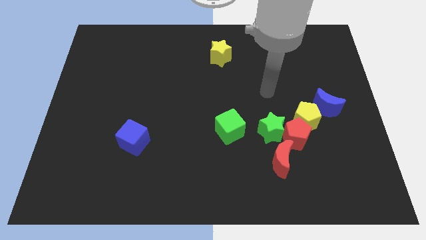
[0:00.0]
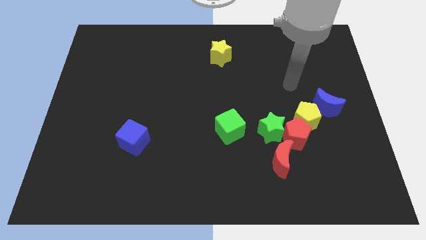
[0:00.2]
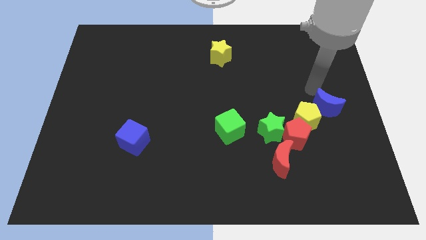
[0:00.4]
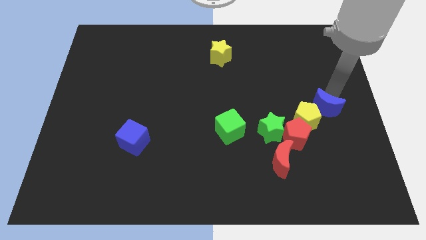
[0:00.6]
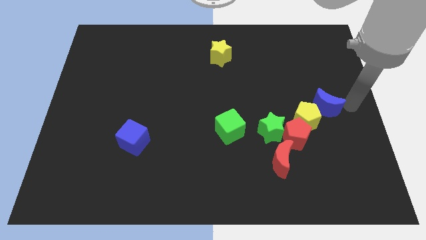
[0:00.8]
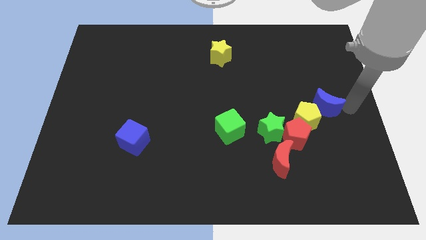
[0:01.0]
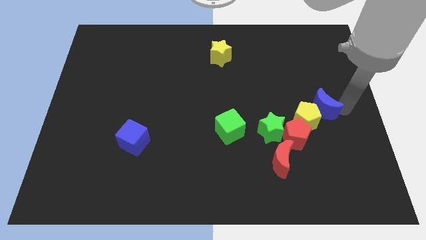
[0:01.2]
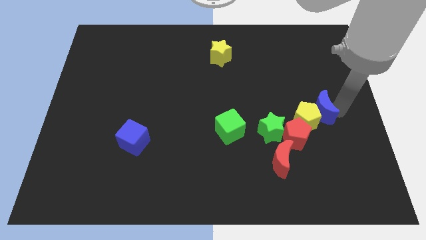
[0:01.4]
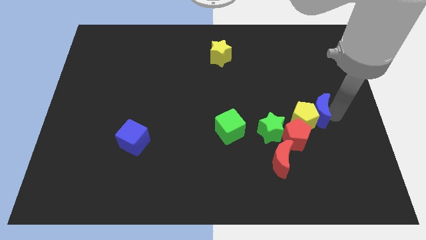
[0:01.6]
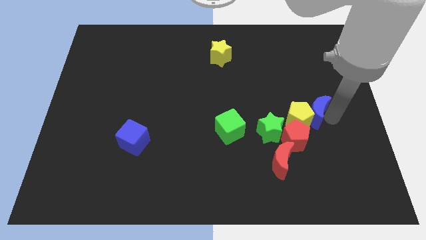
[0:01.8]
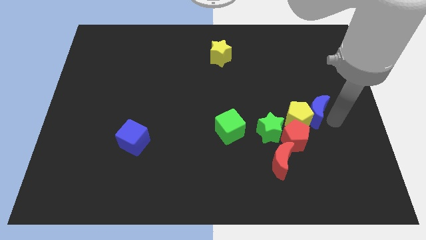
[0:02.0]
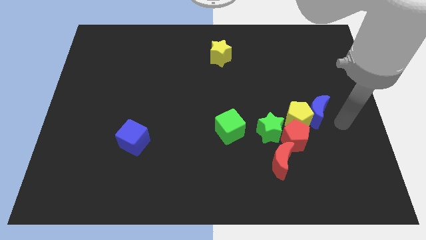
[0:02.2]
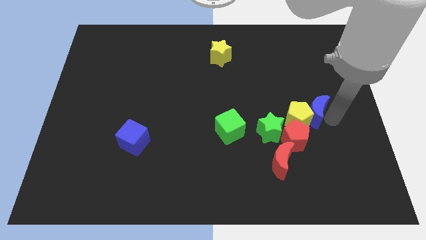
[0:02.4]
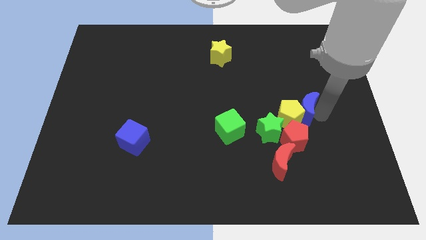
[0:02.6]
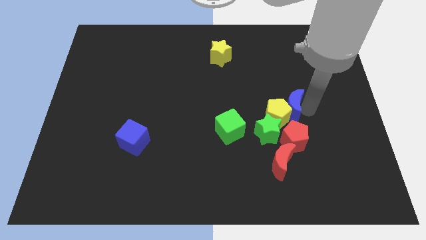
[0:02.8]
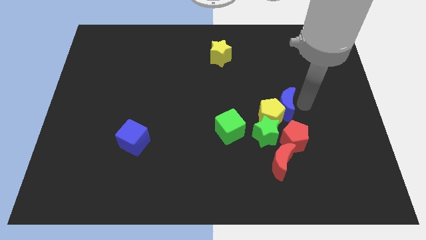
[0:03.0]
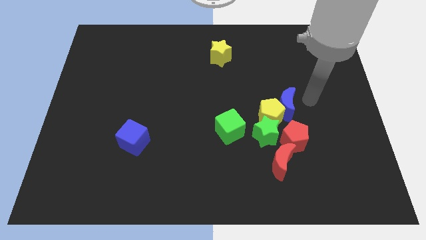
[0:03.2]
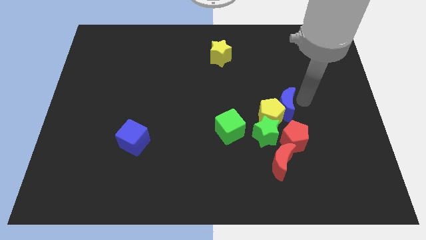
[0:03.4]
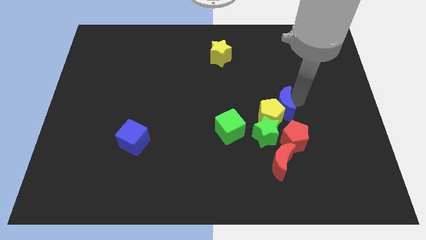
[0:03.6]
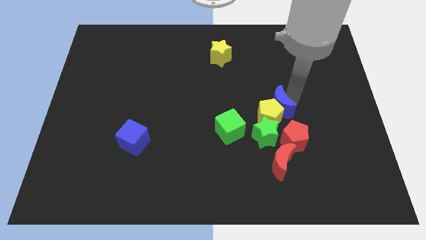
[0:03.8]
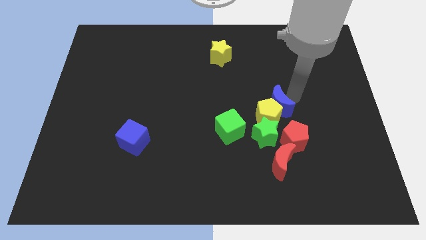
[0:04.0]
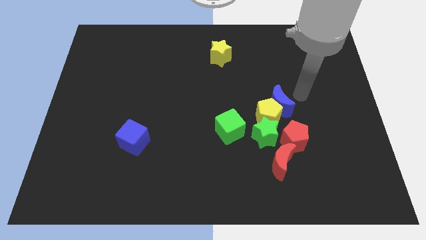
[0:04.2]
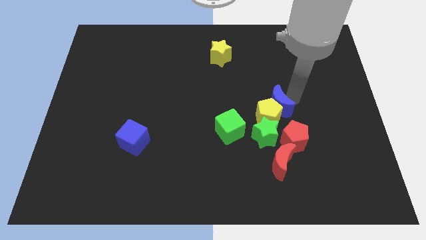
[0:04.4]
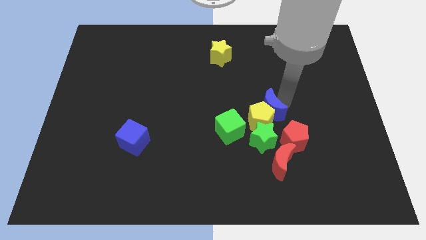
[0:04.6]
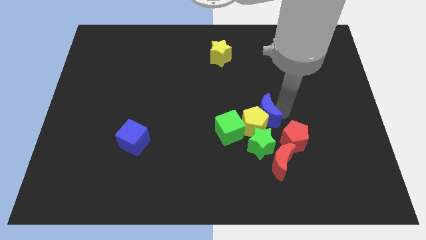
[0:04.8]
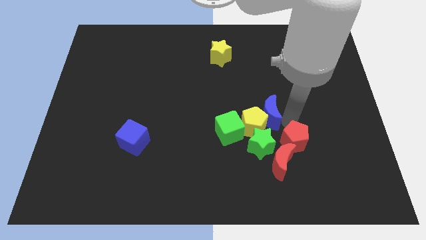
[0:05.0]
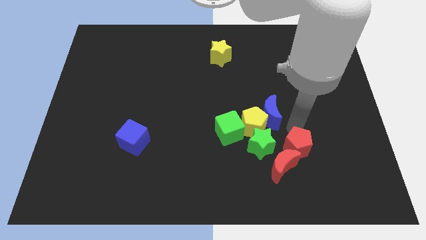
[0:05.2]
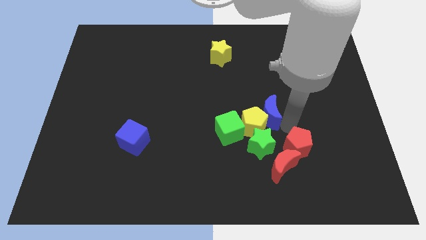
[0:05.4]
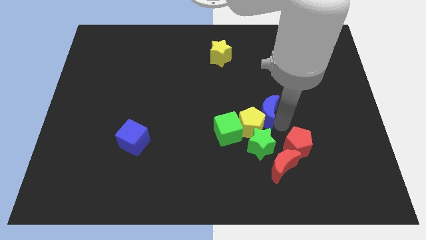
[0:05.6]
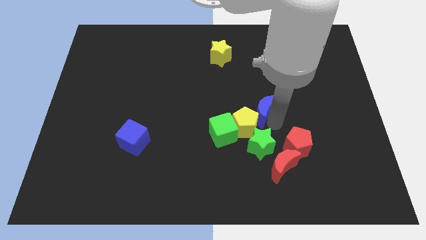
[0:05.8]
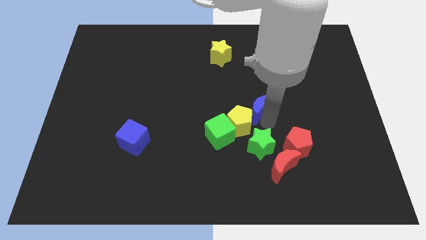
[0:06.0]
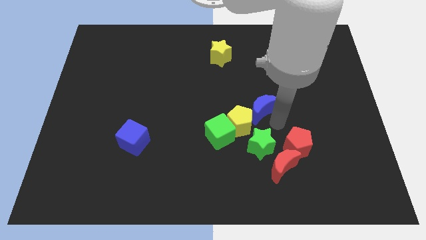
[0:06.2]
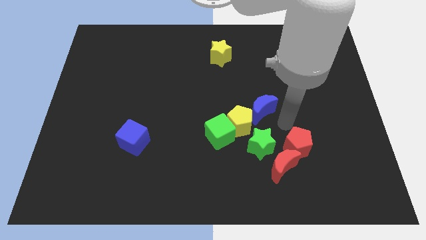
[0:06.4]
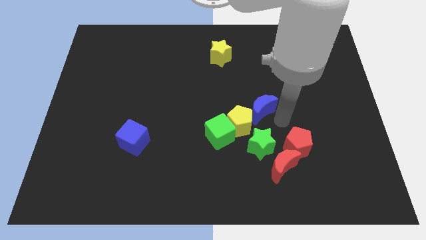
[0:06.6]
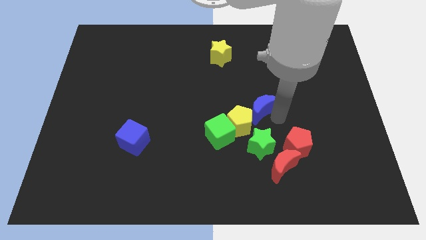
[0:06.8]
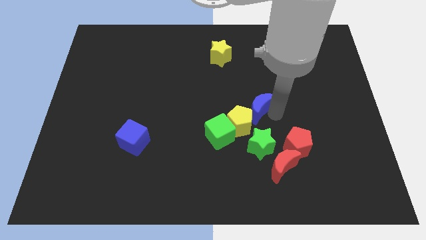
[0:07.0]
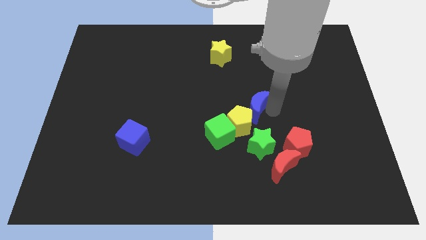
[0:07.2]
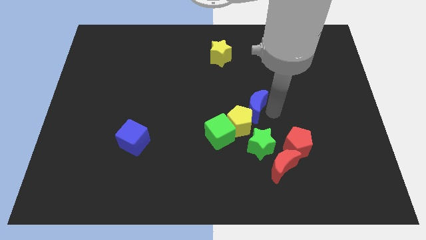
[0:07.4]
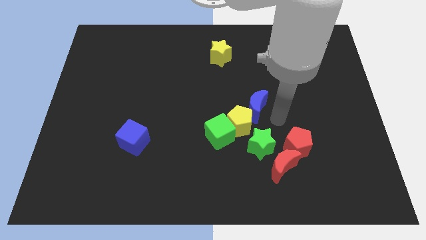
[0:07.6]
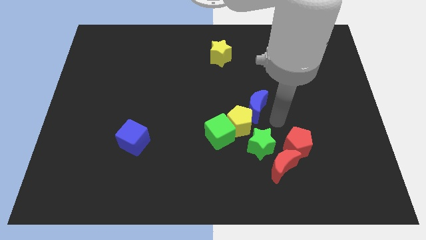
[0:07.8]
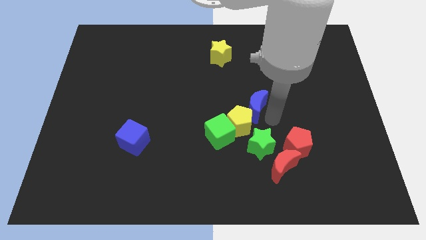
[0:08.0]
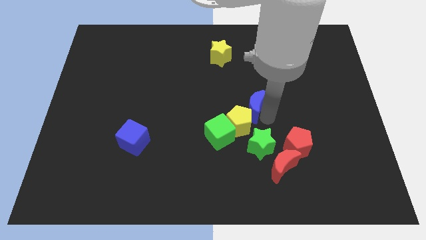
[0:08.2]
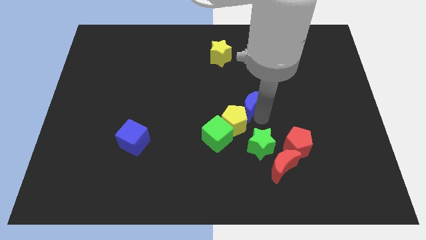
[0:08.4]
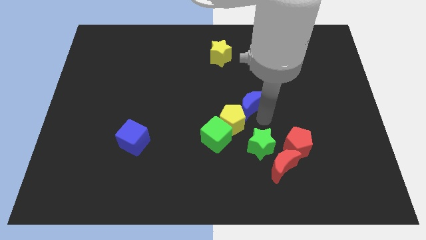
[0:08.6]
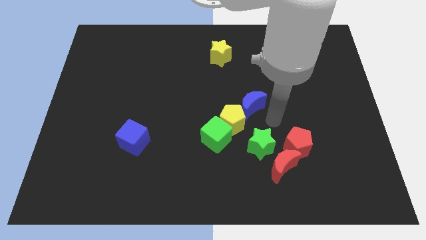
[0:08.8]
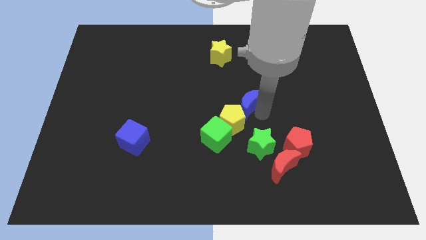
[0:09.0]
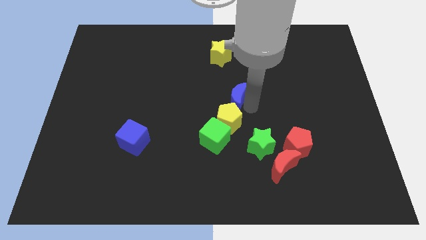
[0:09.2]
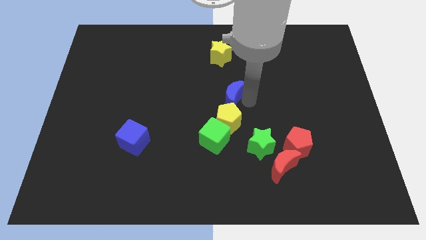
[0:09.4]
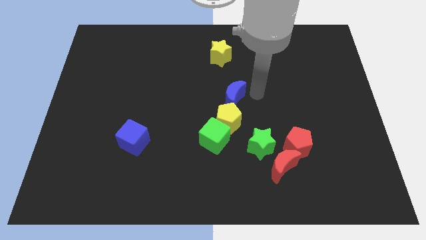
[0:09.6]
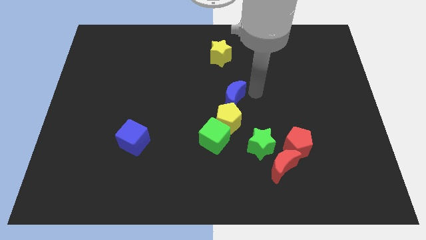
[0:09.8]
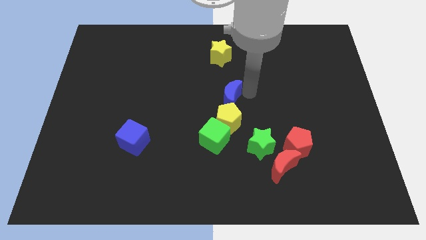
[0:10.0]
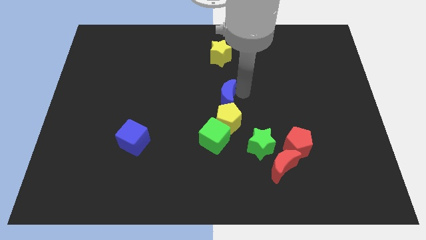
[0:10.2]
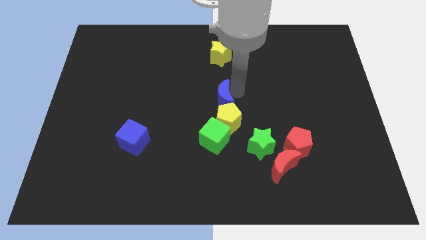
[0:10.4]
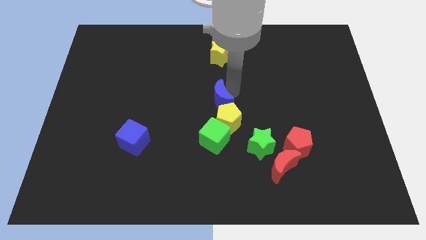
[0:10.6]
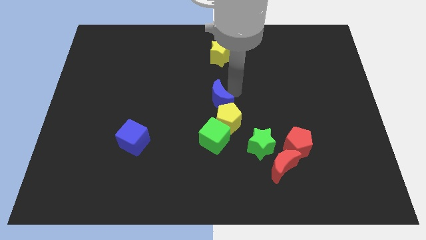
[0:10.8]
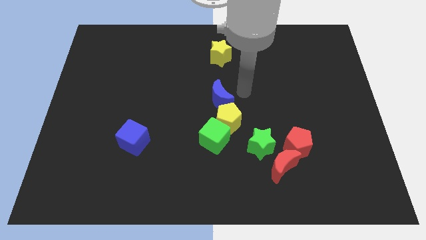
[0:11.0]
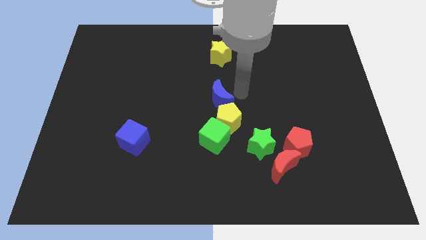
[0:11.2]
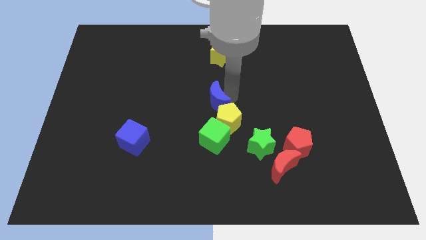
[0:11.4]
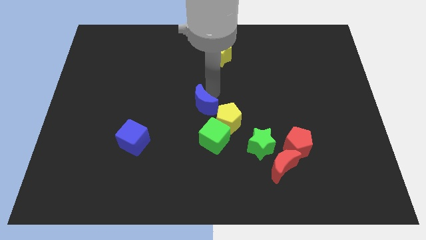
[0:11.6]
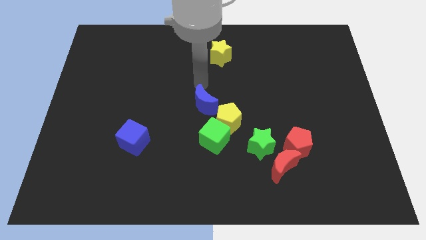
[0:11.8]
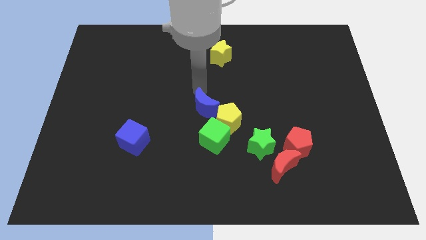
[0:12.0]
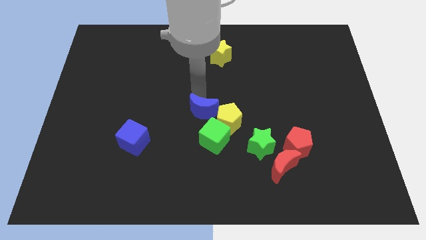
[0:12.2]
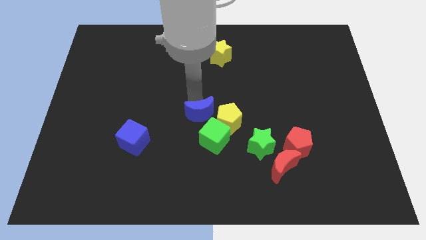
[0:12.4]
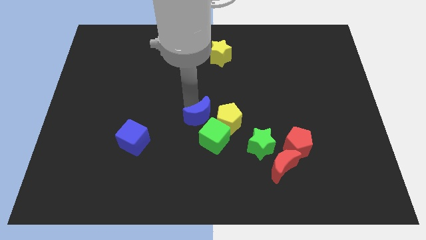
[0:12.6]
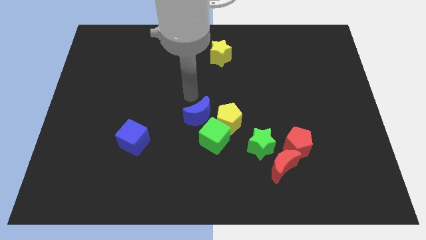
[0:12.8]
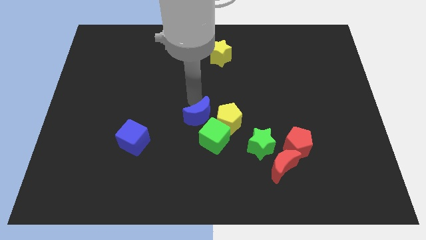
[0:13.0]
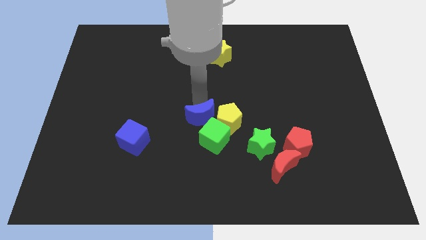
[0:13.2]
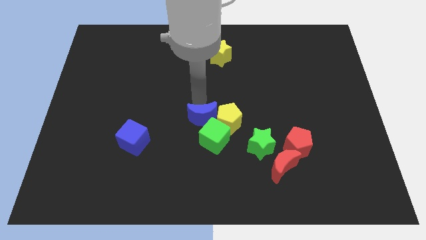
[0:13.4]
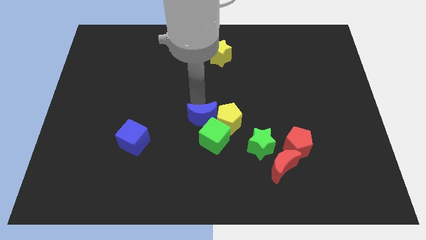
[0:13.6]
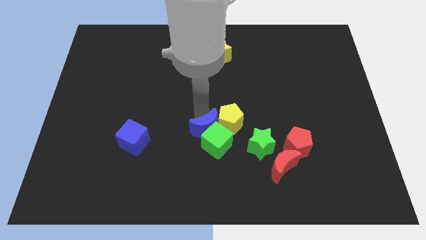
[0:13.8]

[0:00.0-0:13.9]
slide the blue moon left of the green star
